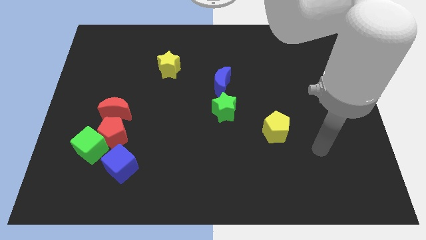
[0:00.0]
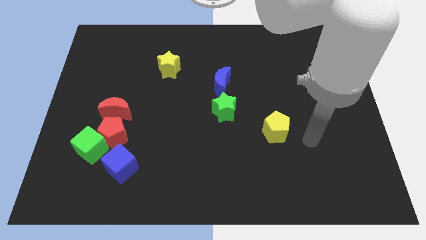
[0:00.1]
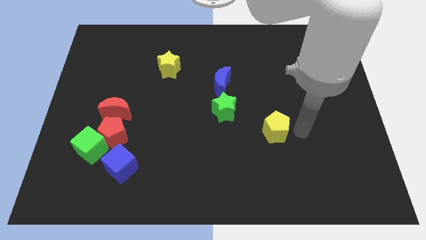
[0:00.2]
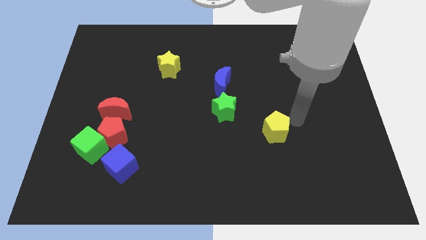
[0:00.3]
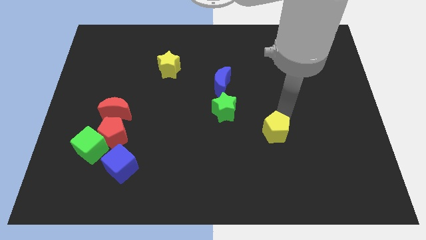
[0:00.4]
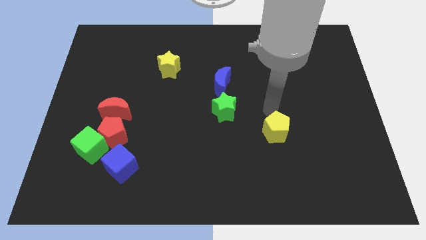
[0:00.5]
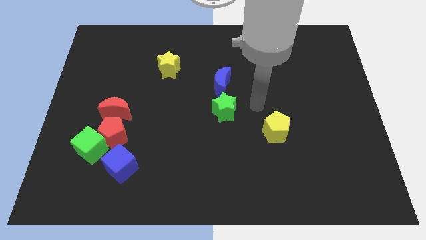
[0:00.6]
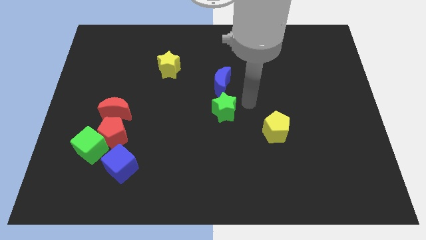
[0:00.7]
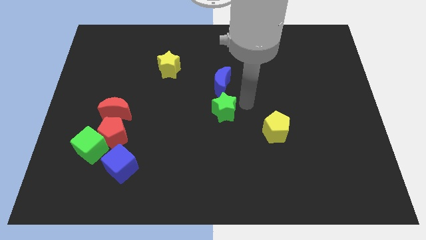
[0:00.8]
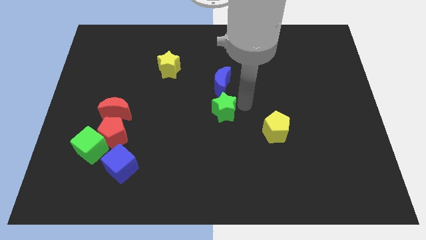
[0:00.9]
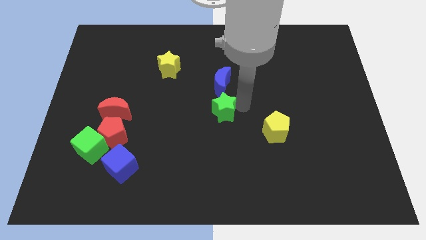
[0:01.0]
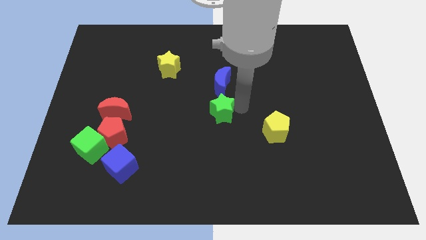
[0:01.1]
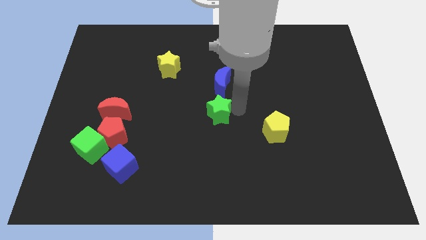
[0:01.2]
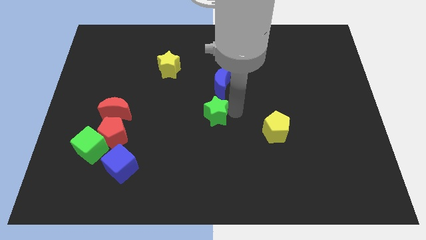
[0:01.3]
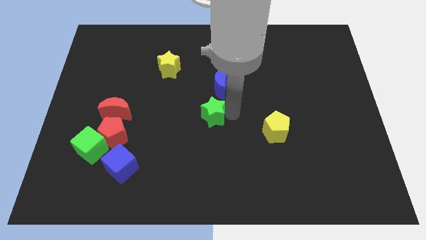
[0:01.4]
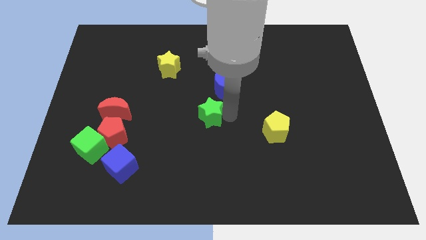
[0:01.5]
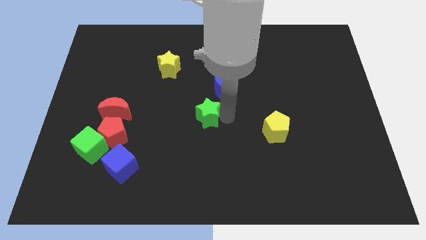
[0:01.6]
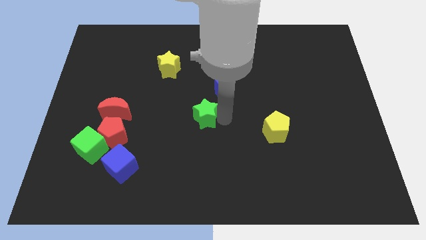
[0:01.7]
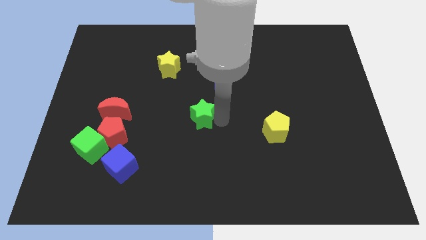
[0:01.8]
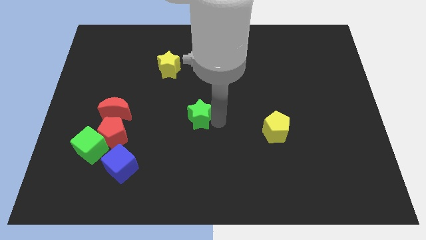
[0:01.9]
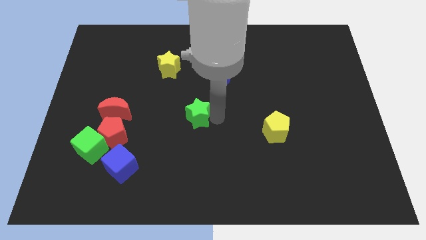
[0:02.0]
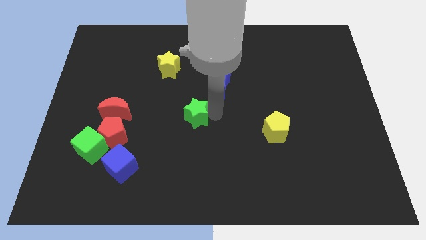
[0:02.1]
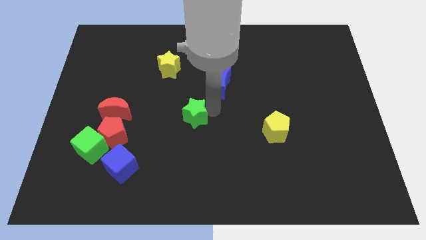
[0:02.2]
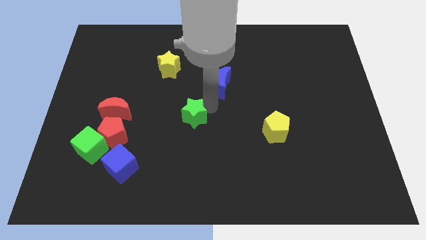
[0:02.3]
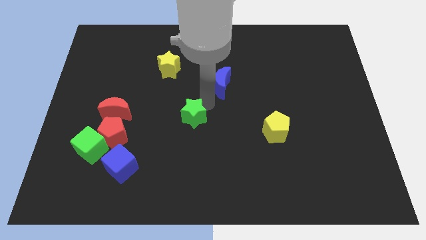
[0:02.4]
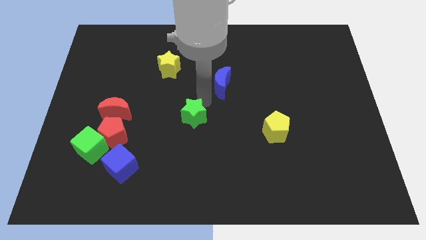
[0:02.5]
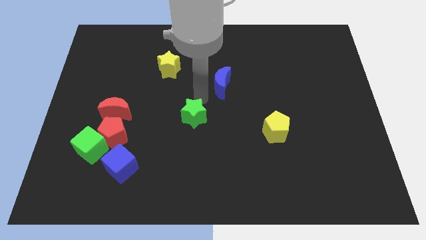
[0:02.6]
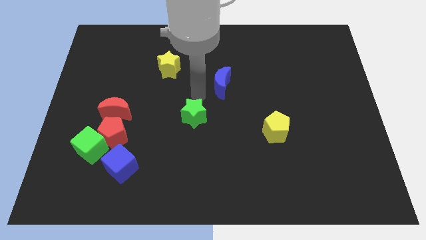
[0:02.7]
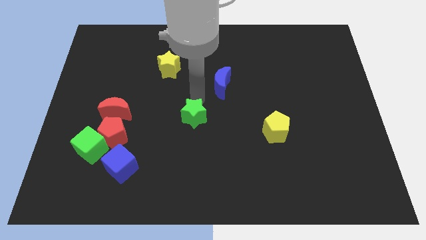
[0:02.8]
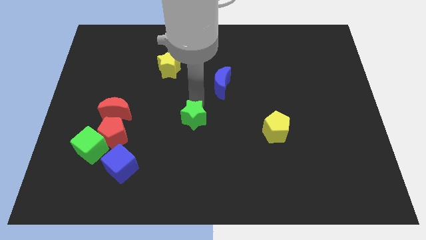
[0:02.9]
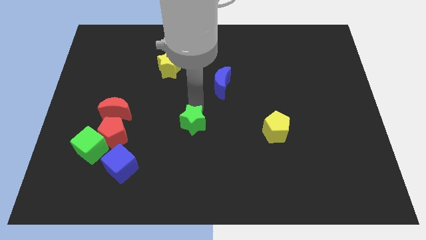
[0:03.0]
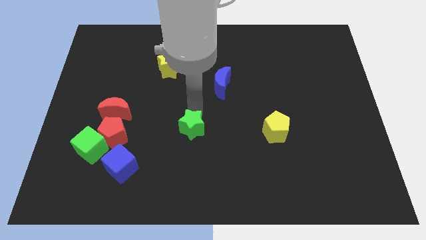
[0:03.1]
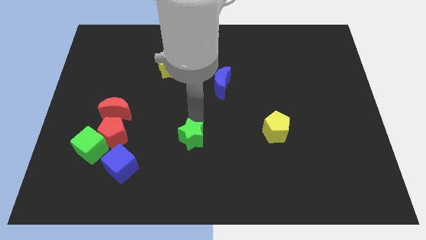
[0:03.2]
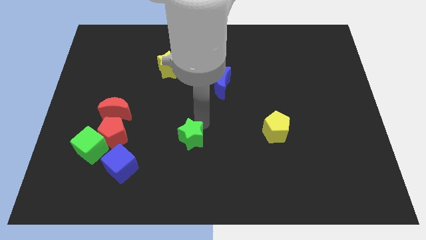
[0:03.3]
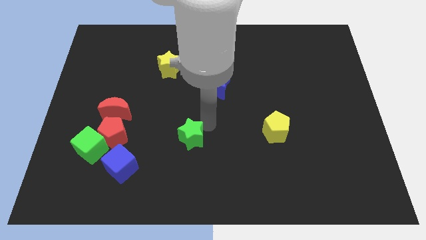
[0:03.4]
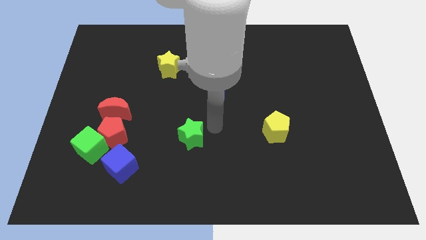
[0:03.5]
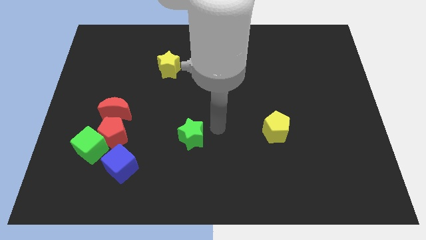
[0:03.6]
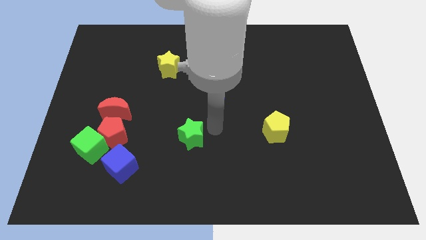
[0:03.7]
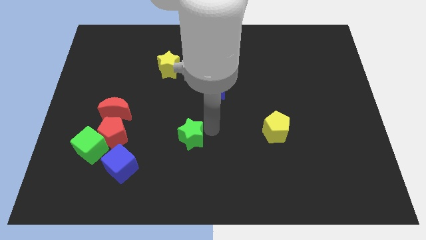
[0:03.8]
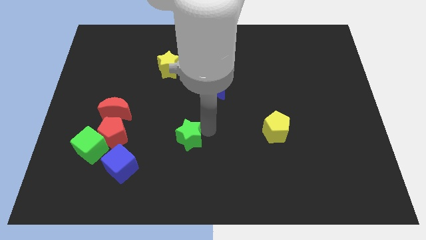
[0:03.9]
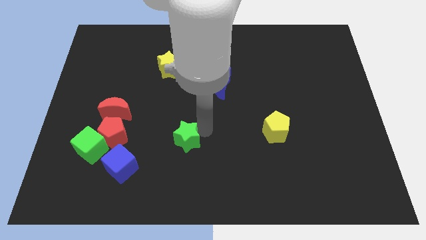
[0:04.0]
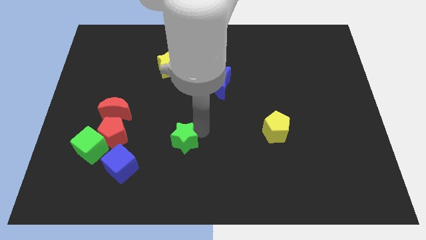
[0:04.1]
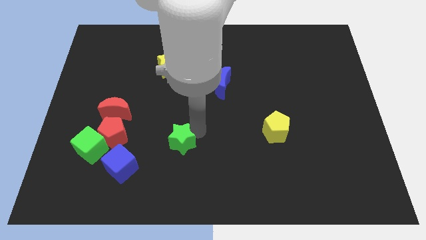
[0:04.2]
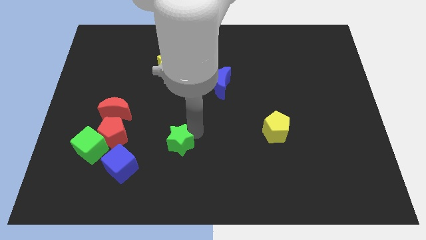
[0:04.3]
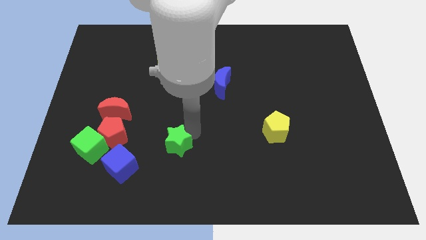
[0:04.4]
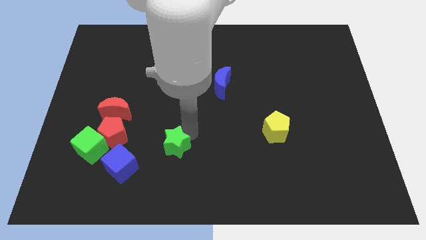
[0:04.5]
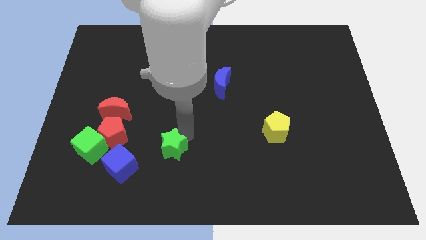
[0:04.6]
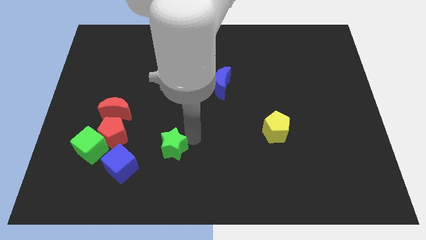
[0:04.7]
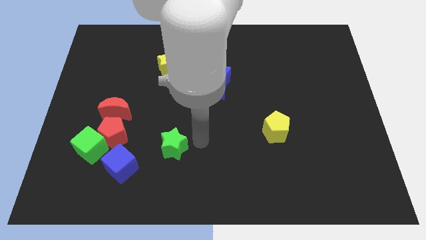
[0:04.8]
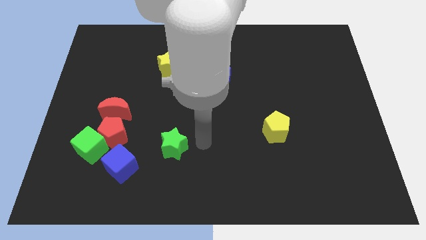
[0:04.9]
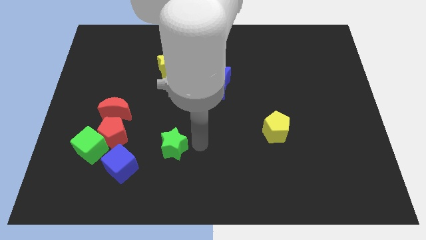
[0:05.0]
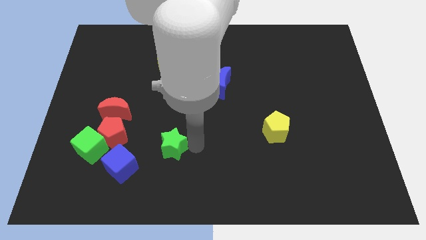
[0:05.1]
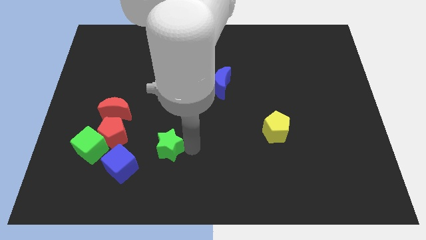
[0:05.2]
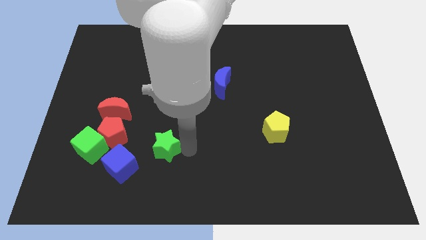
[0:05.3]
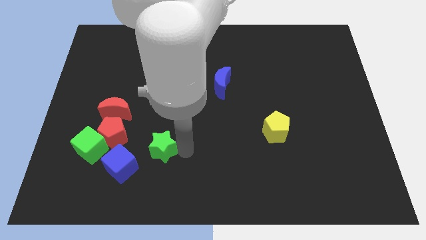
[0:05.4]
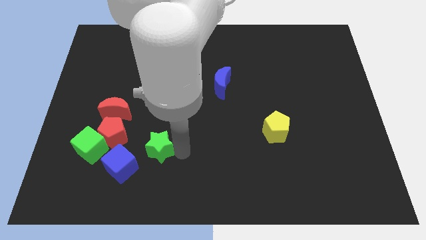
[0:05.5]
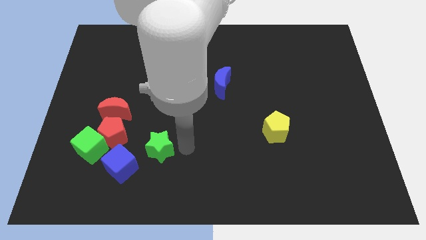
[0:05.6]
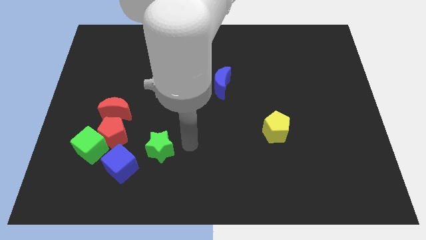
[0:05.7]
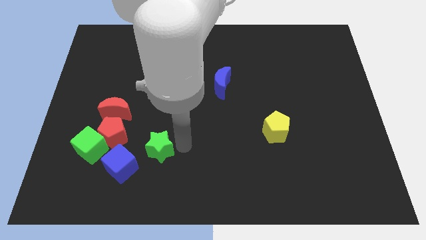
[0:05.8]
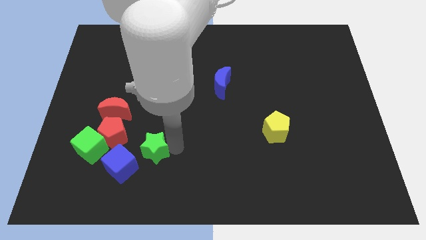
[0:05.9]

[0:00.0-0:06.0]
push the green star diagonally down and to the right of the red pentagon

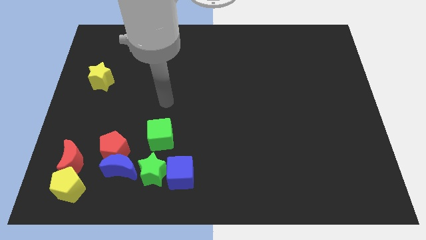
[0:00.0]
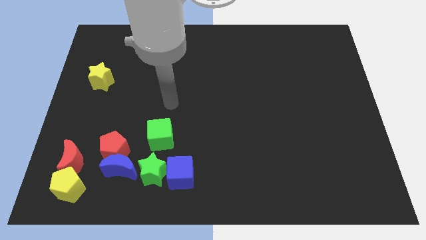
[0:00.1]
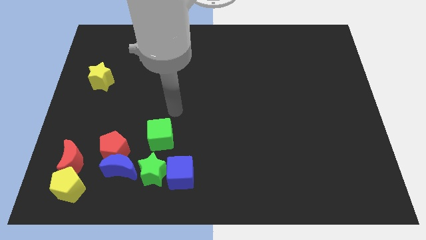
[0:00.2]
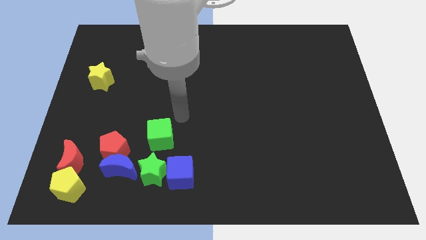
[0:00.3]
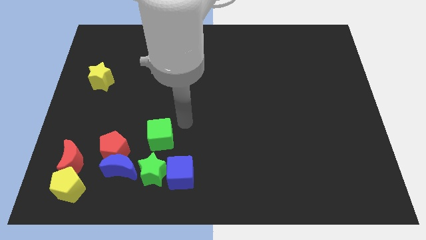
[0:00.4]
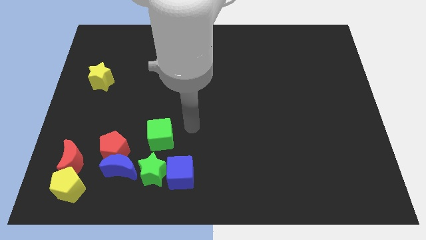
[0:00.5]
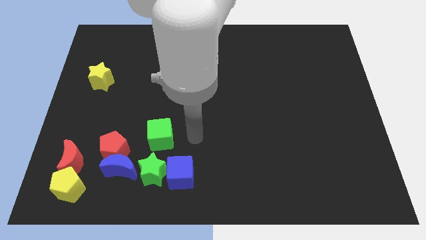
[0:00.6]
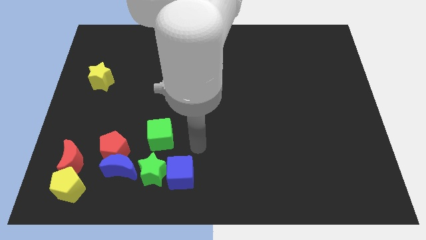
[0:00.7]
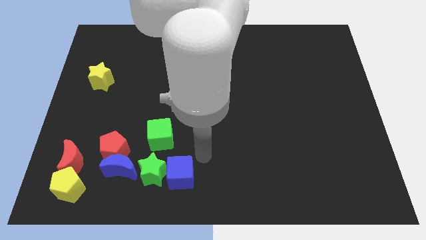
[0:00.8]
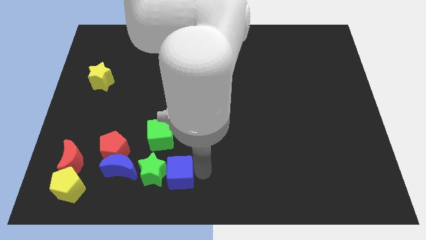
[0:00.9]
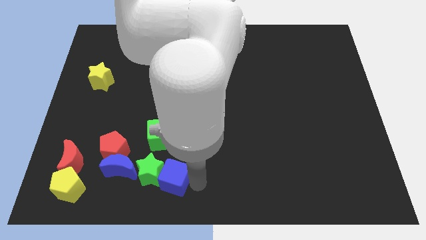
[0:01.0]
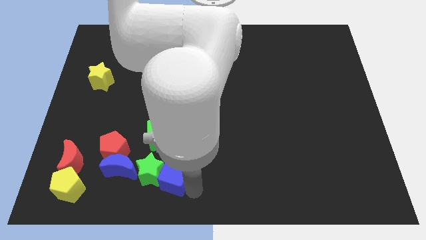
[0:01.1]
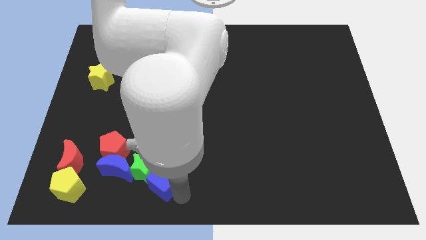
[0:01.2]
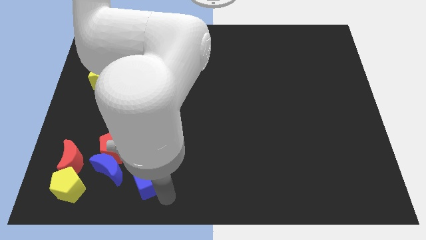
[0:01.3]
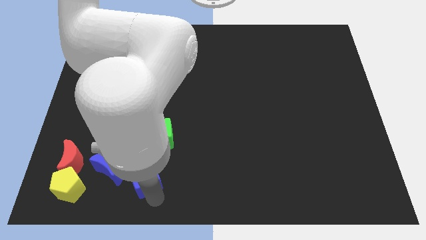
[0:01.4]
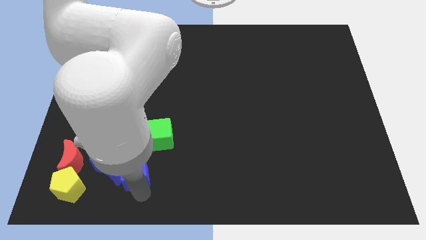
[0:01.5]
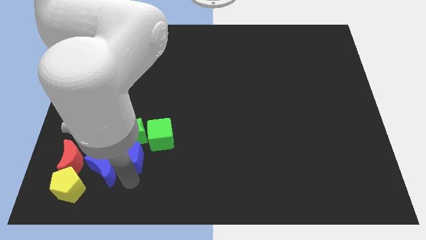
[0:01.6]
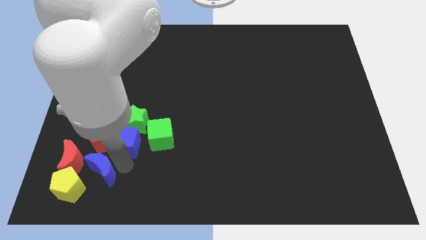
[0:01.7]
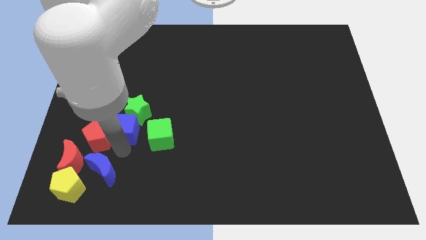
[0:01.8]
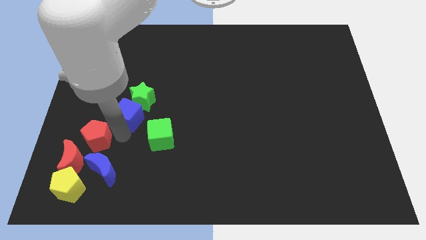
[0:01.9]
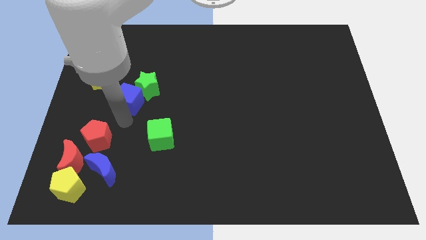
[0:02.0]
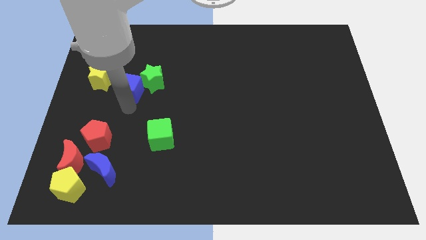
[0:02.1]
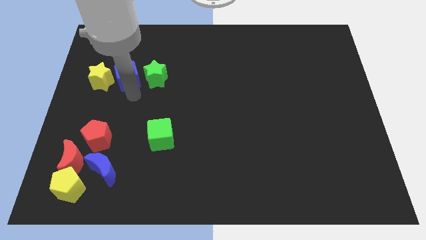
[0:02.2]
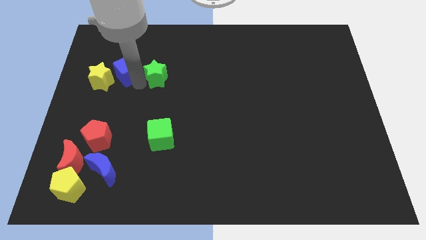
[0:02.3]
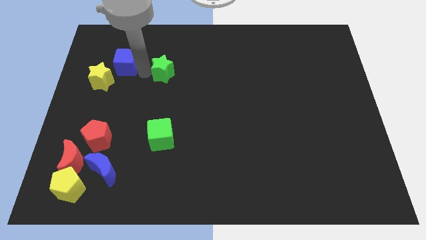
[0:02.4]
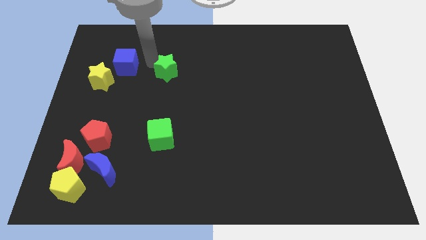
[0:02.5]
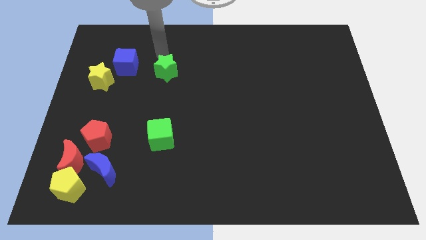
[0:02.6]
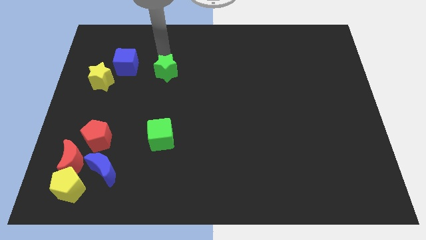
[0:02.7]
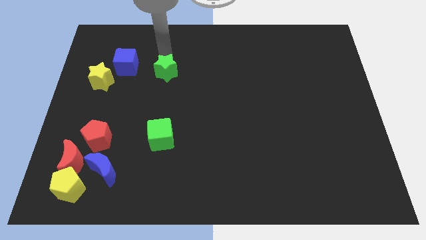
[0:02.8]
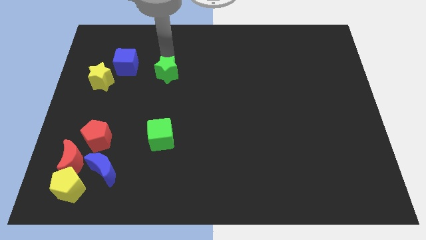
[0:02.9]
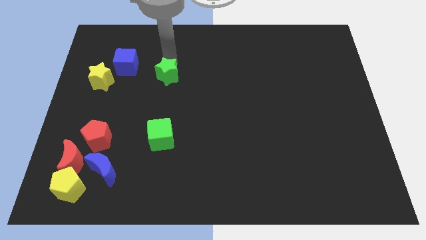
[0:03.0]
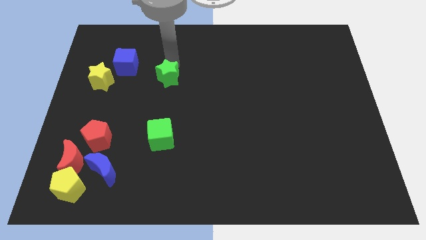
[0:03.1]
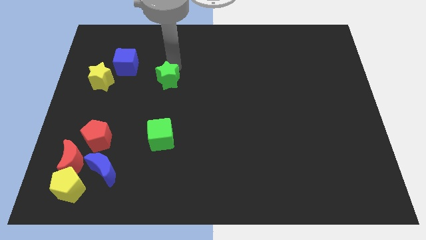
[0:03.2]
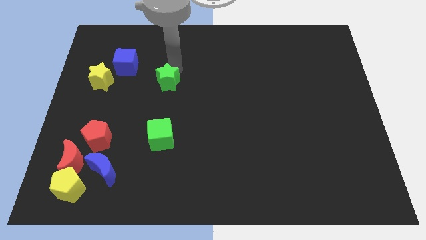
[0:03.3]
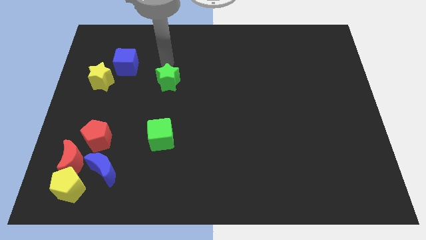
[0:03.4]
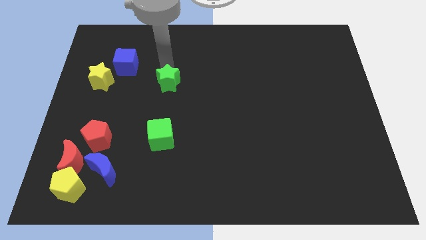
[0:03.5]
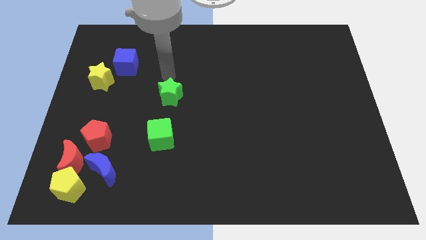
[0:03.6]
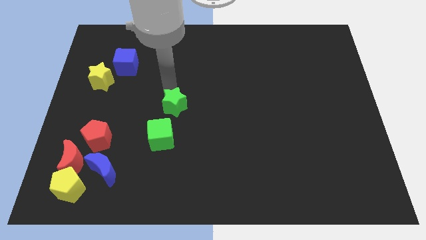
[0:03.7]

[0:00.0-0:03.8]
move the green star diagonally up and to the right of the green cube
